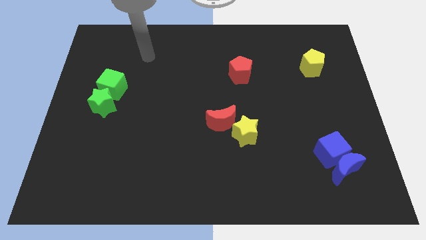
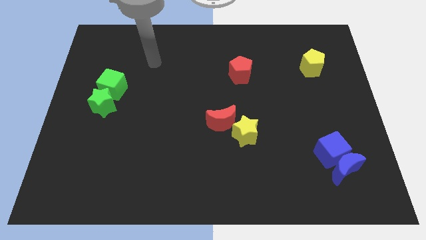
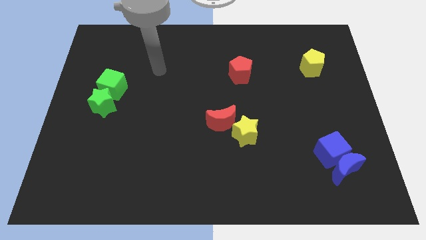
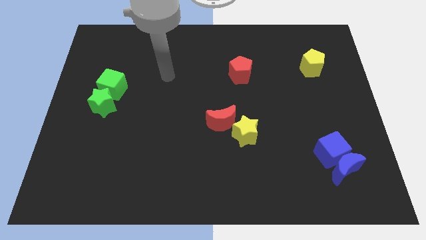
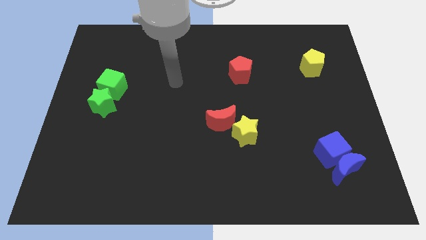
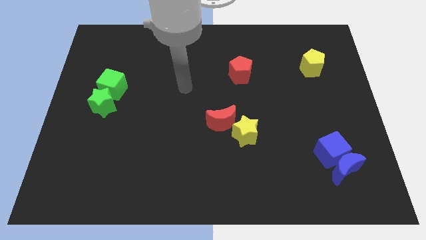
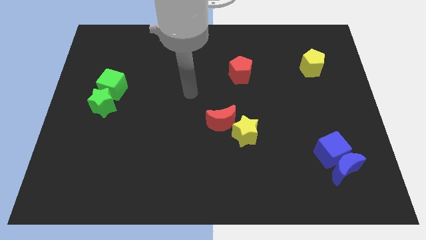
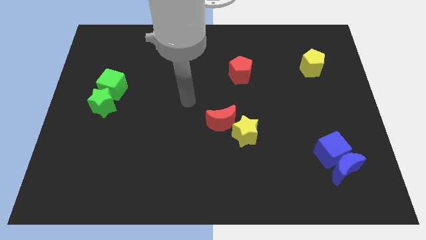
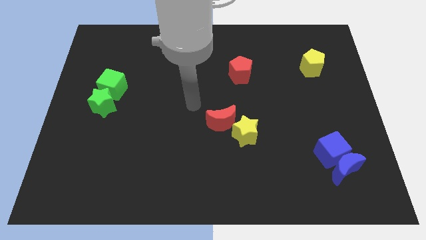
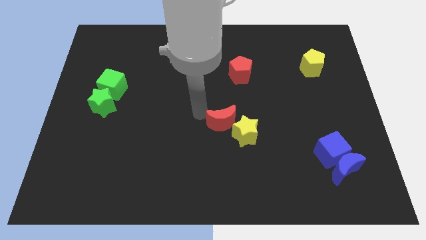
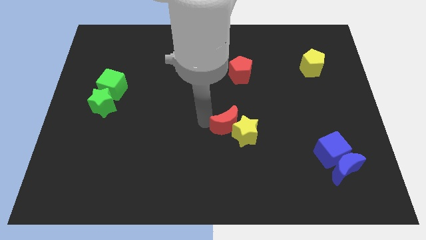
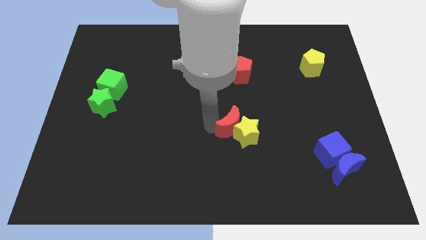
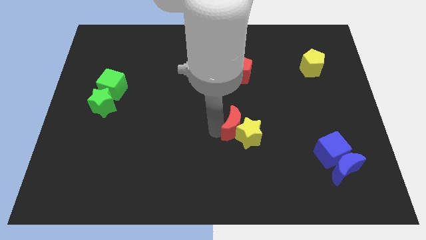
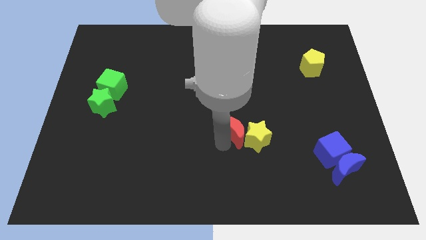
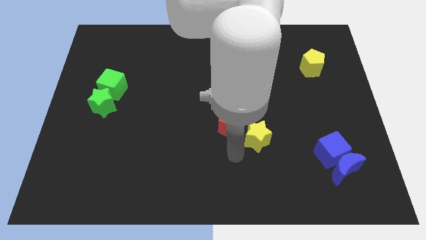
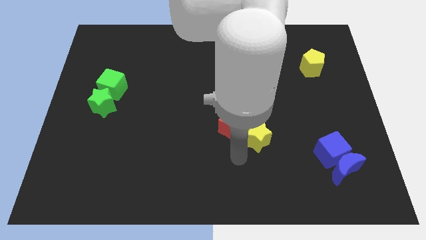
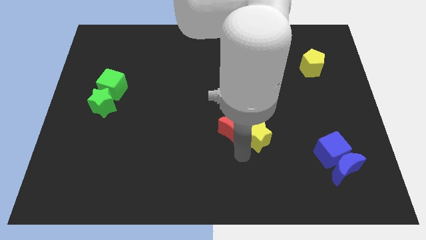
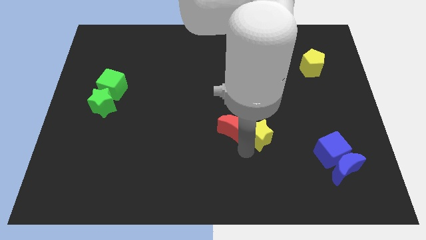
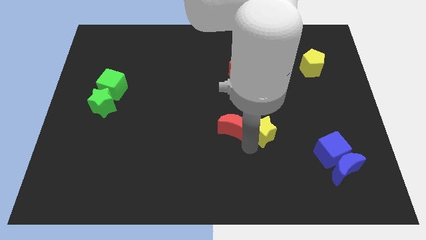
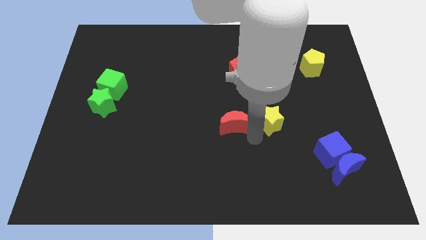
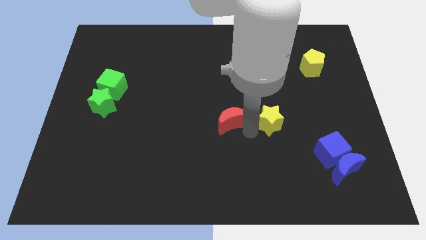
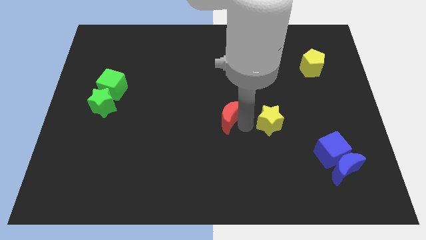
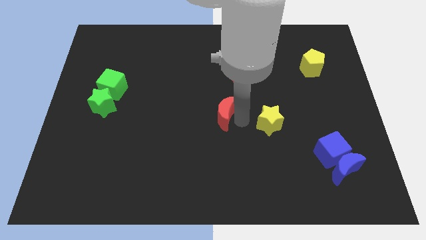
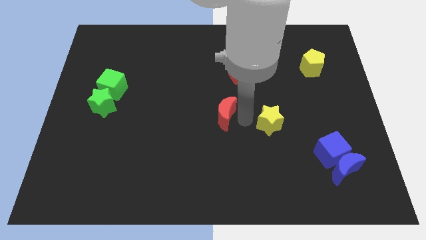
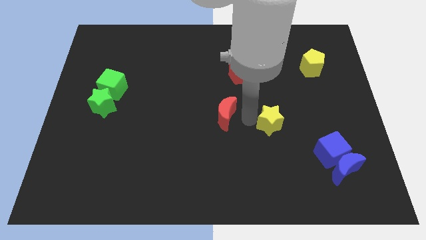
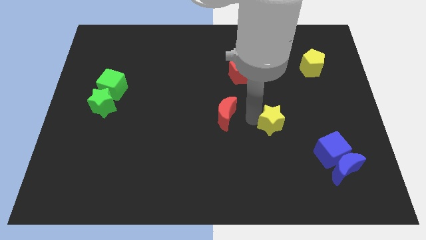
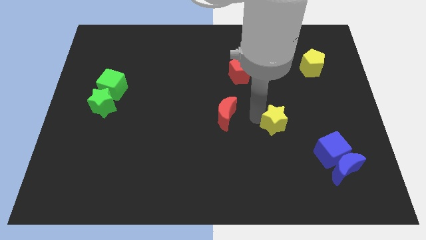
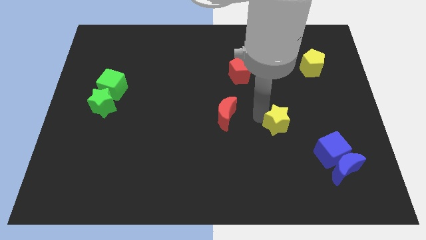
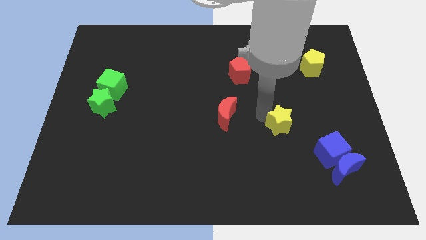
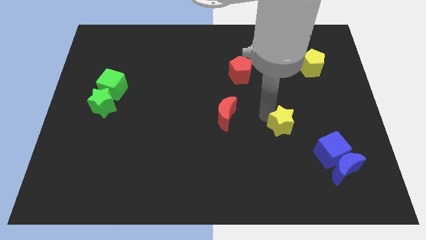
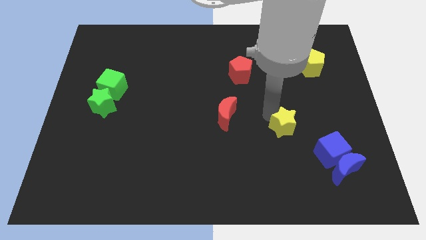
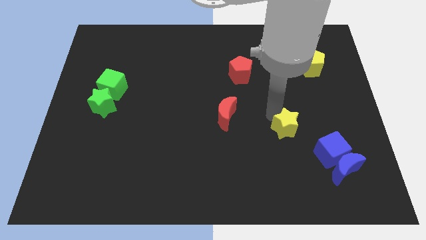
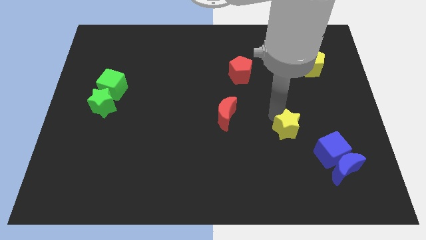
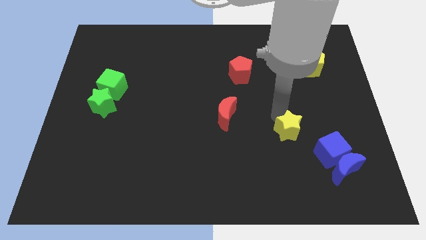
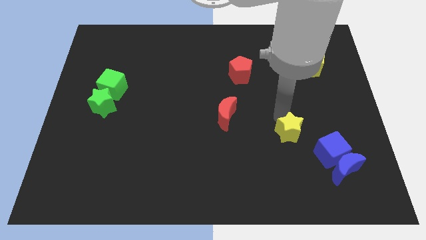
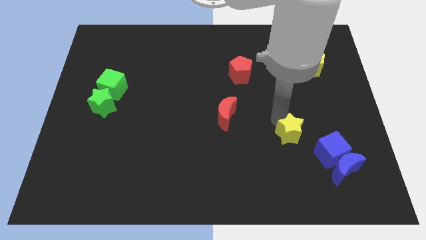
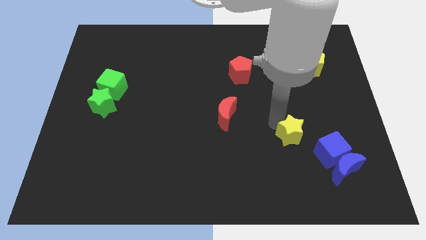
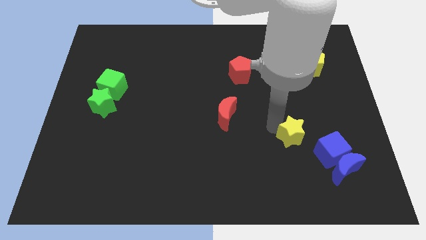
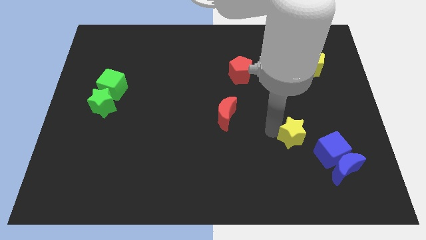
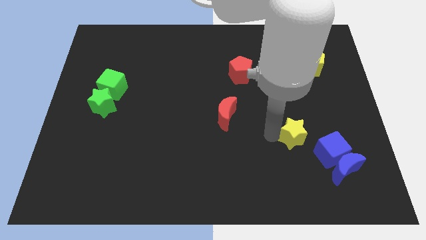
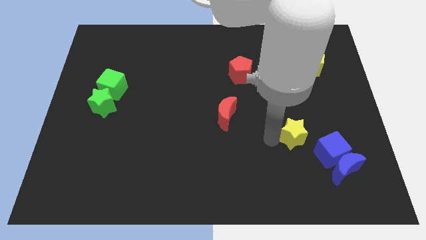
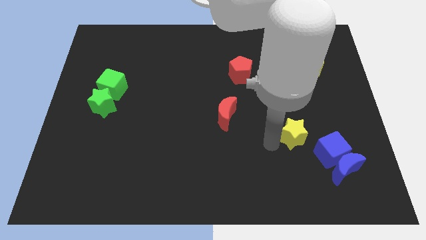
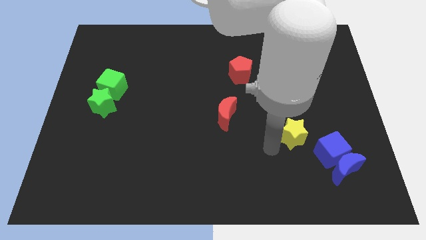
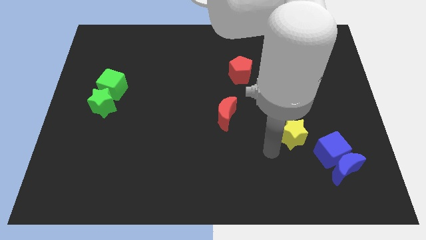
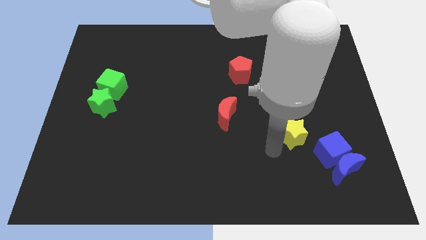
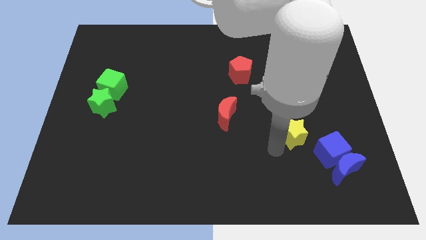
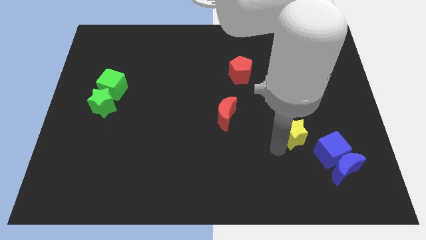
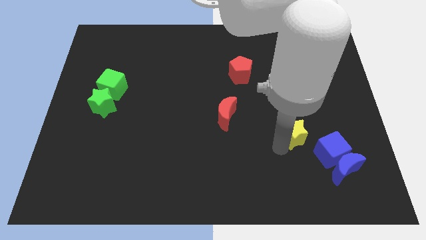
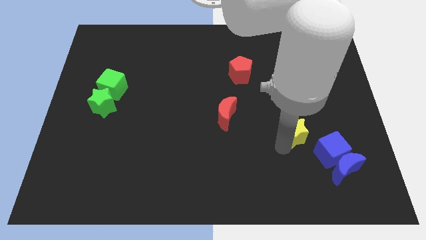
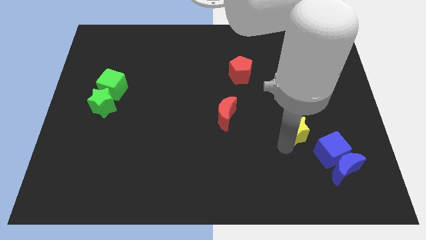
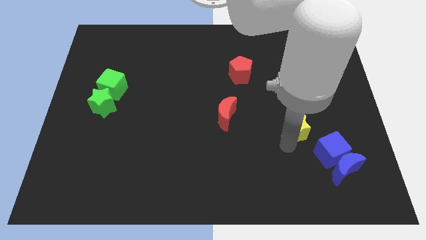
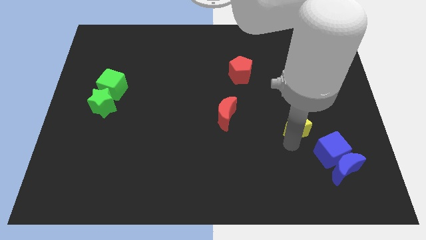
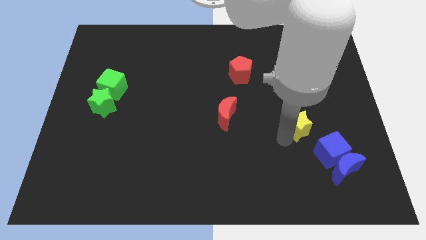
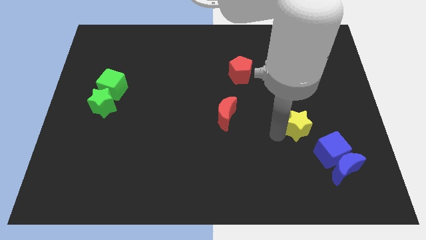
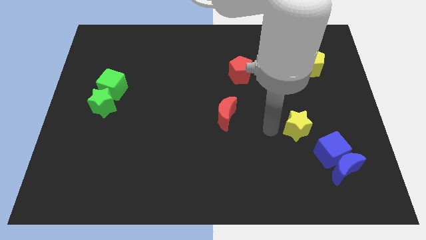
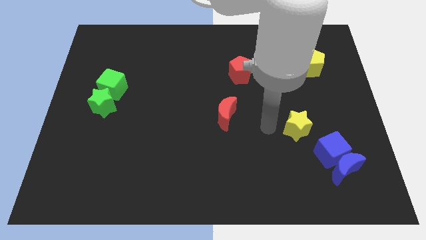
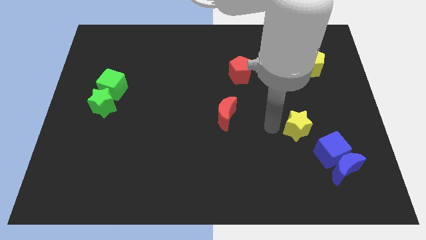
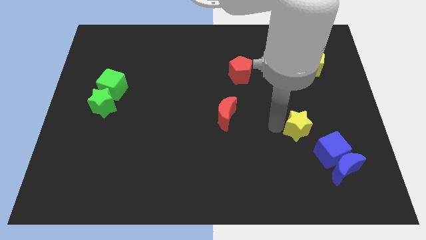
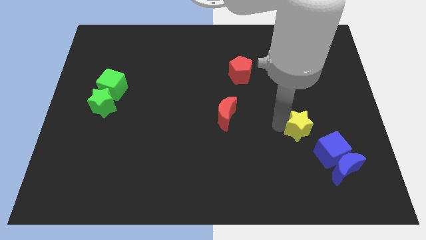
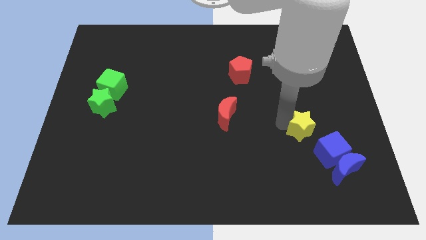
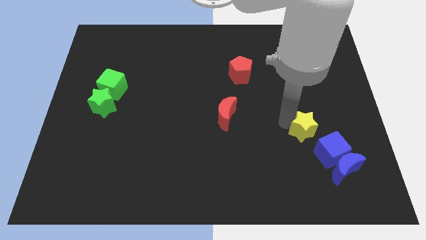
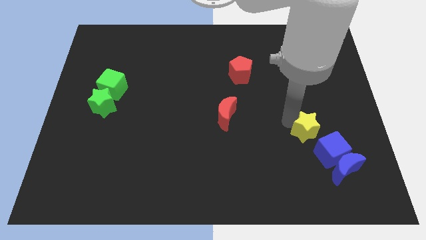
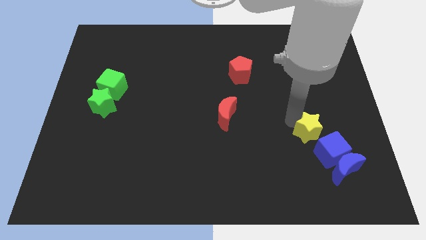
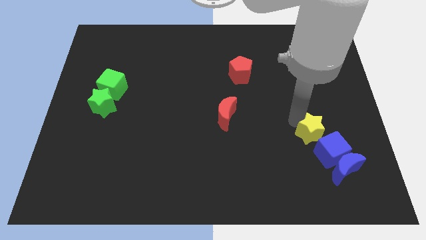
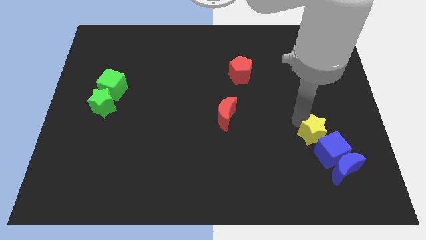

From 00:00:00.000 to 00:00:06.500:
push the yellow star above the blue moon

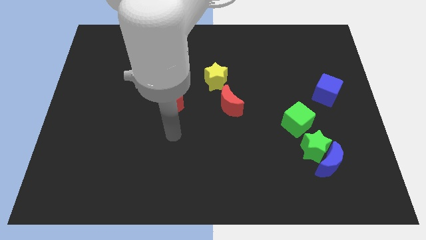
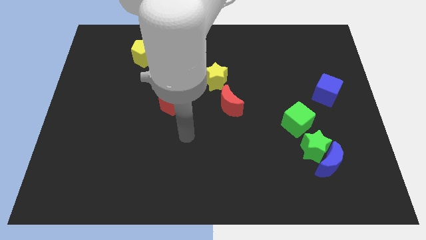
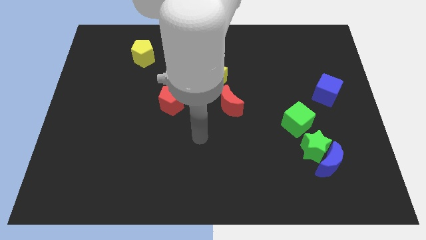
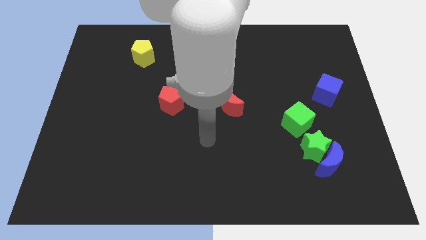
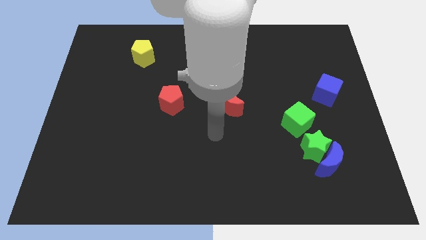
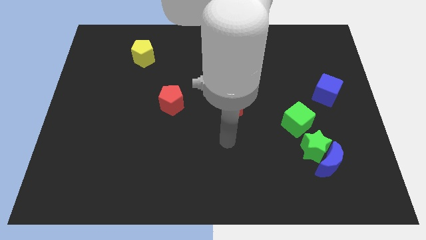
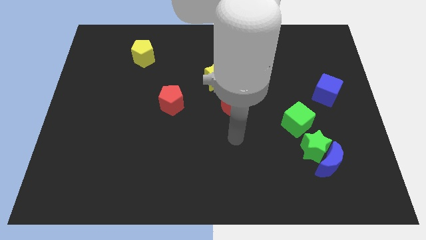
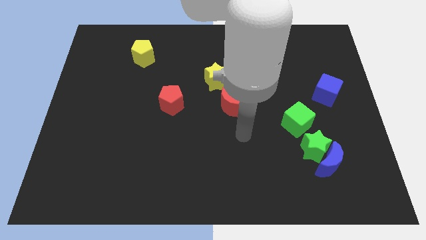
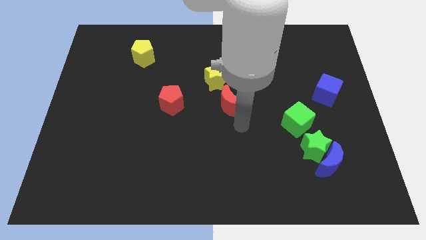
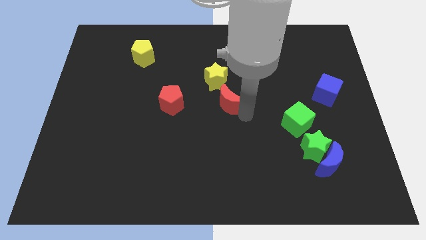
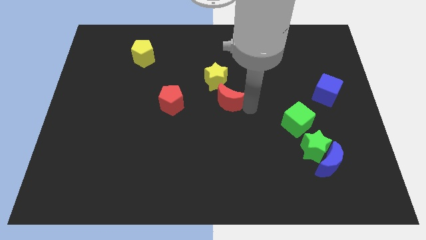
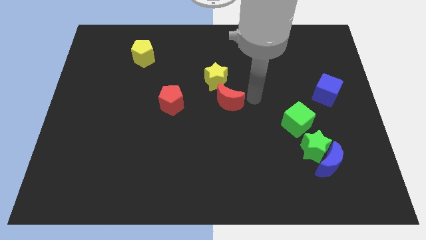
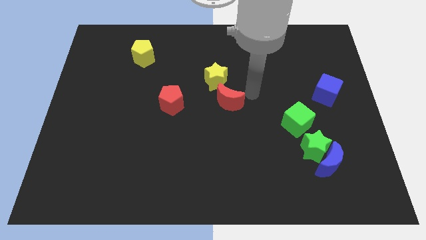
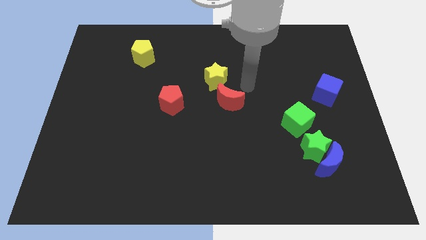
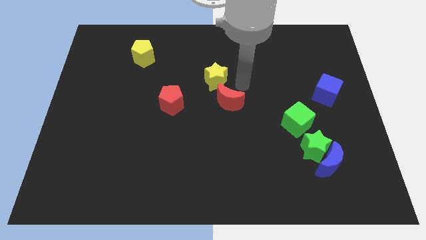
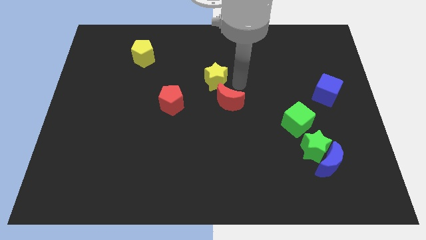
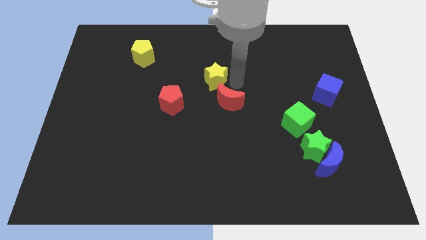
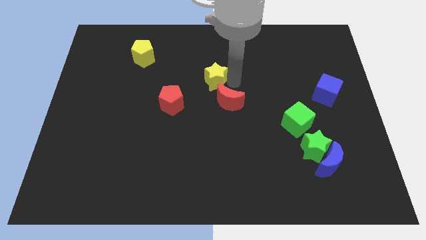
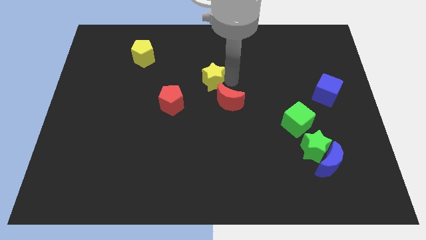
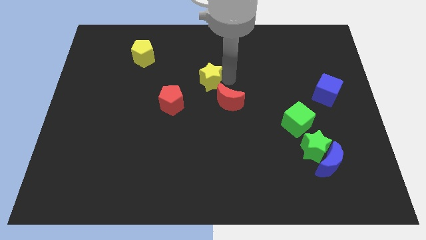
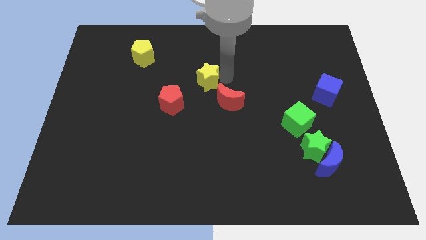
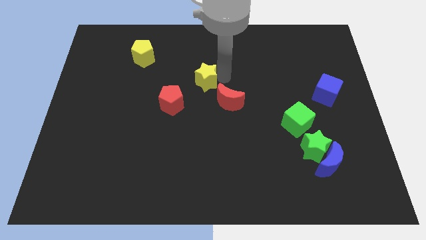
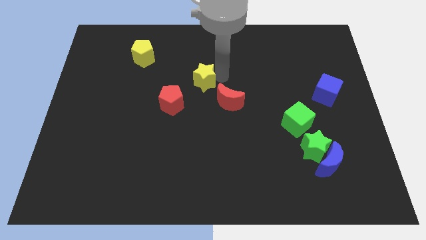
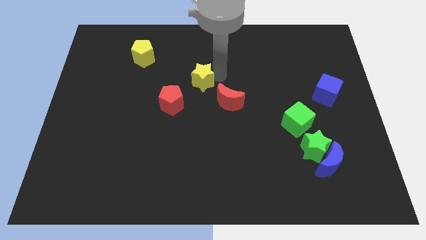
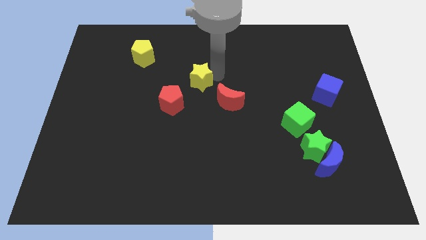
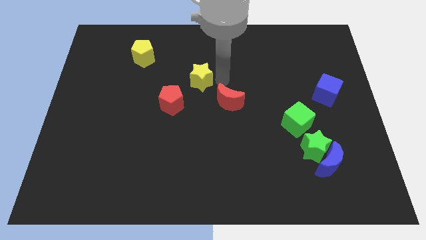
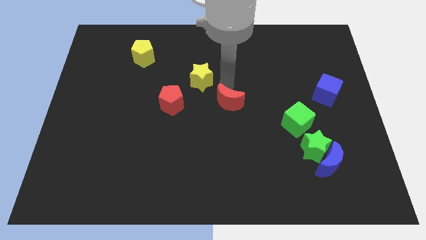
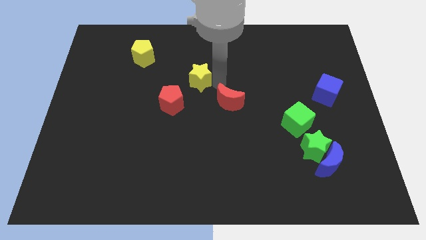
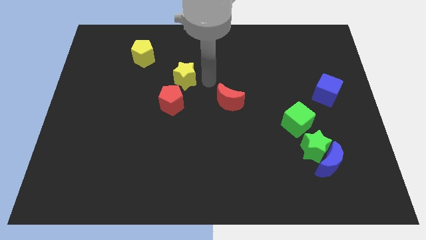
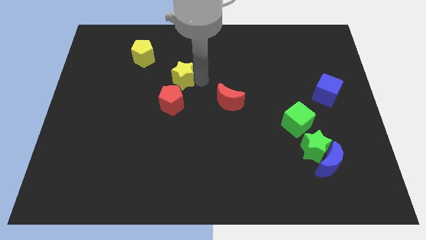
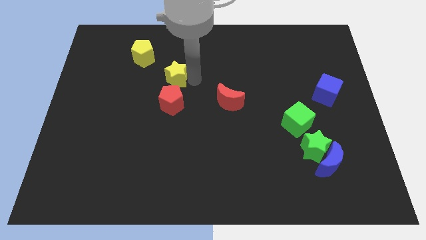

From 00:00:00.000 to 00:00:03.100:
move the yellow star diagonally down and to the right of the yellow pentagon
